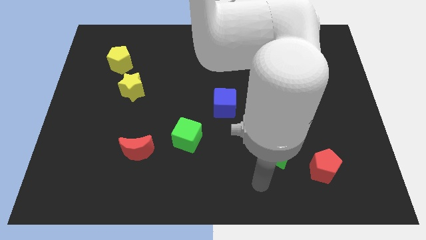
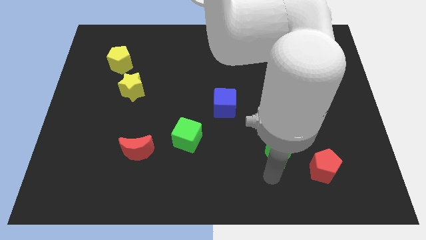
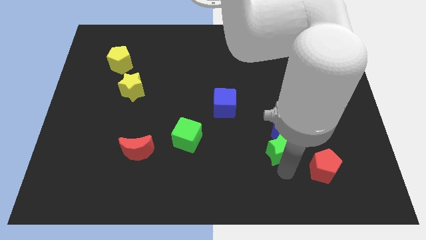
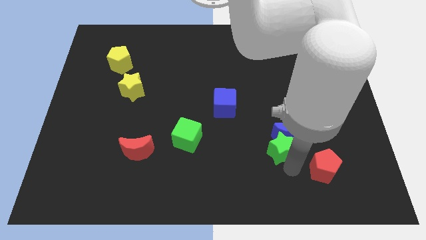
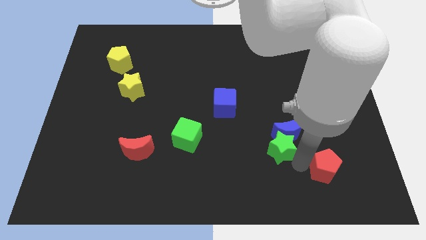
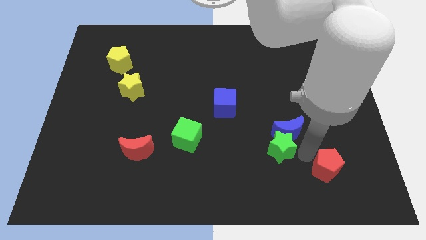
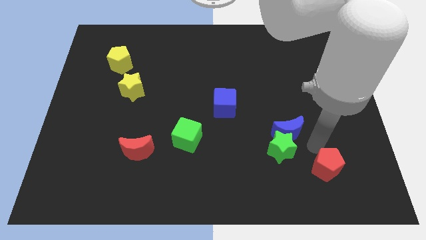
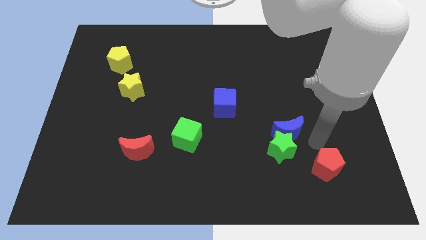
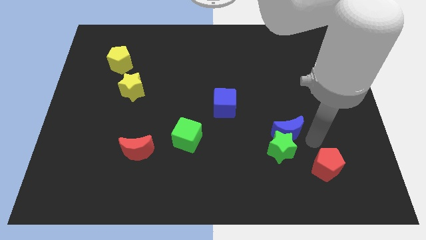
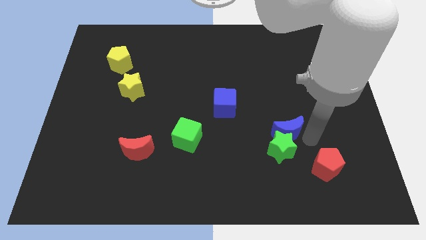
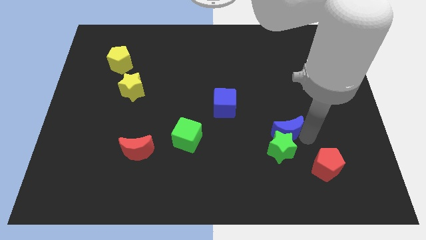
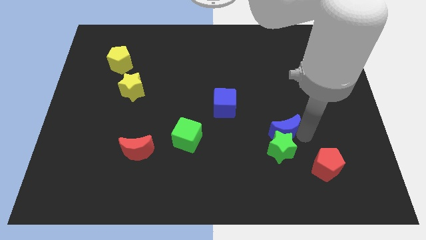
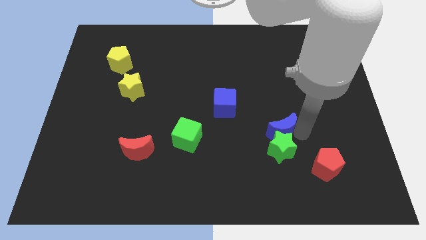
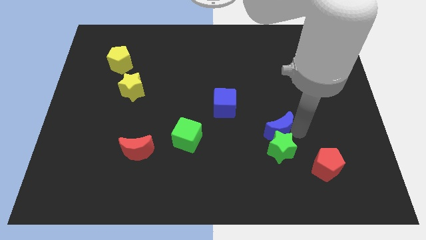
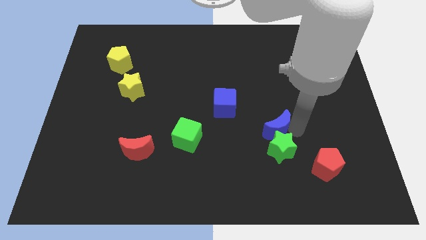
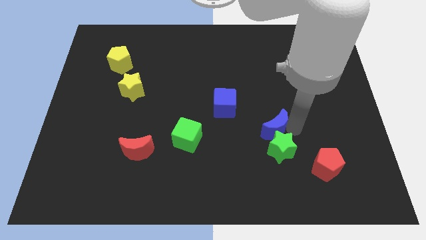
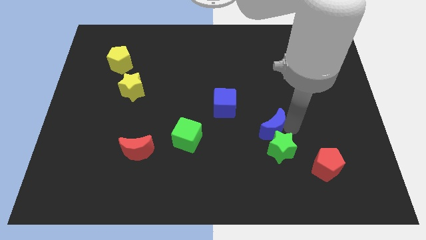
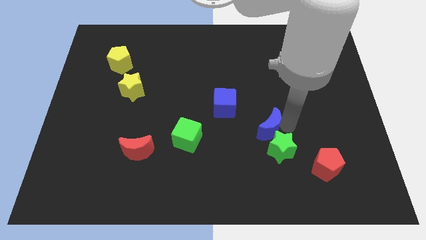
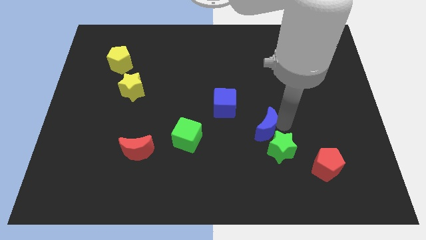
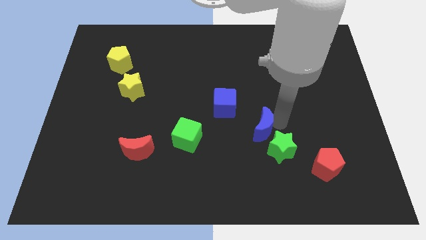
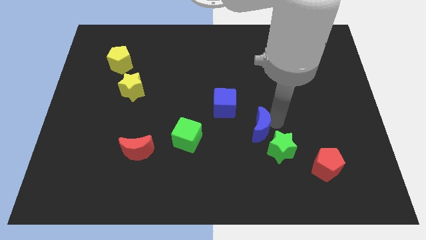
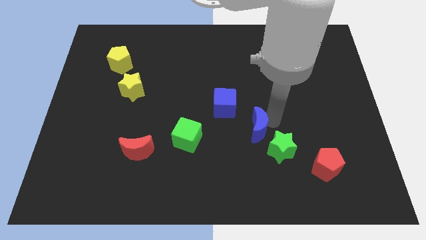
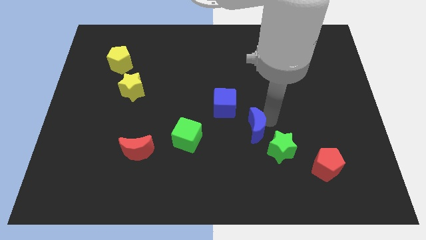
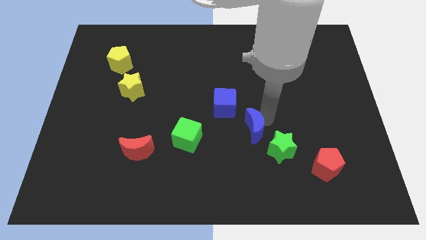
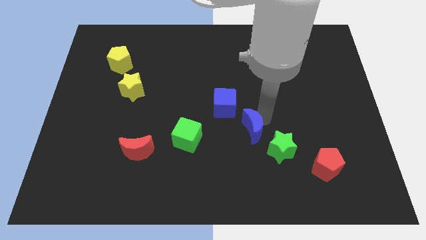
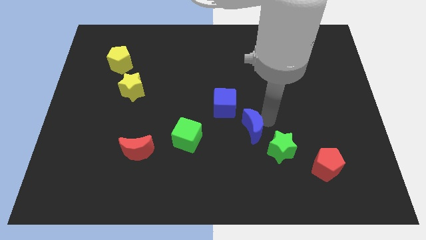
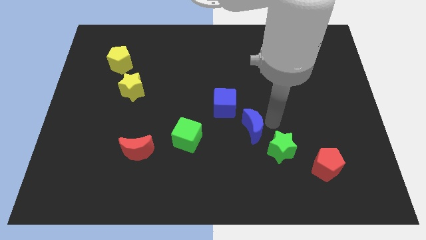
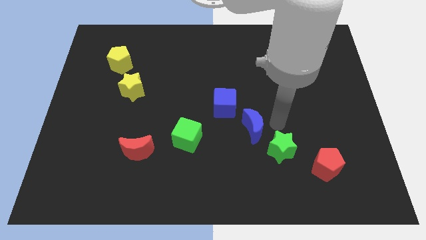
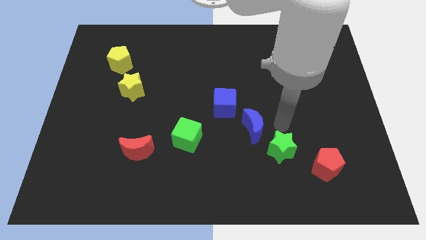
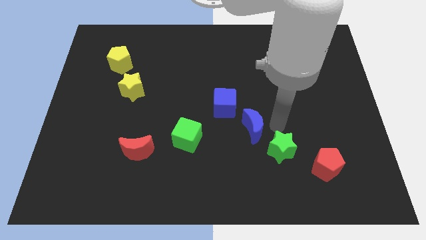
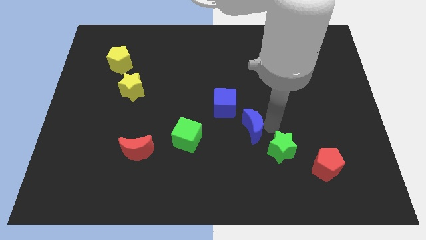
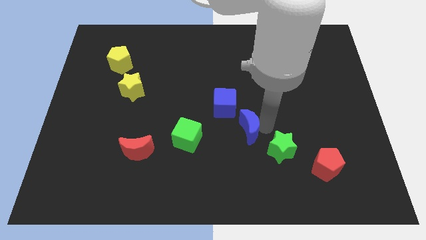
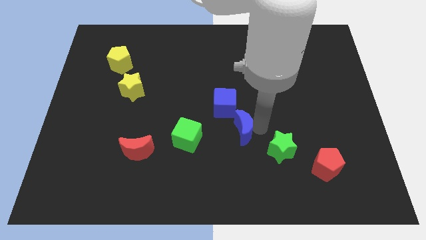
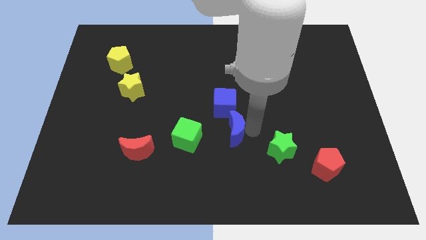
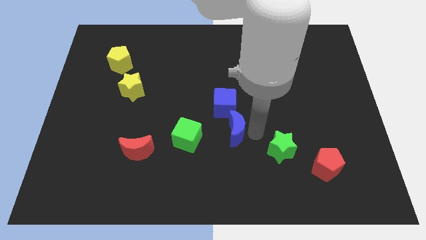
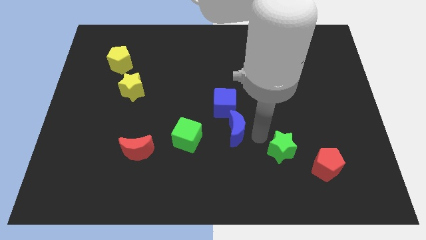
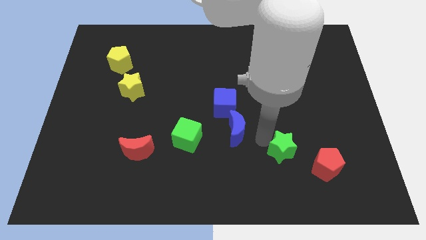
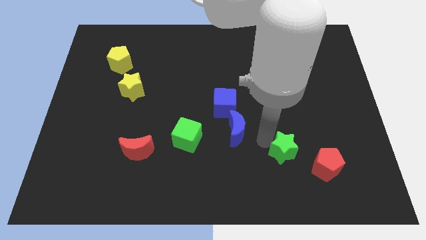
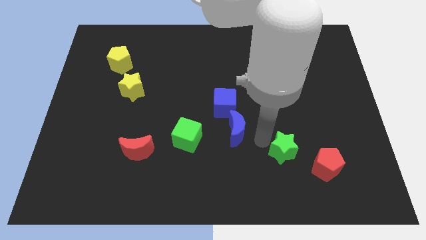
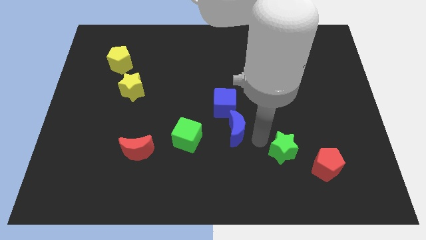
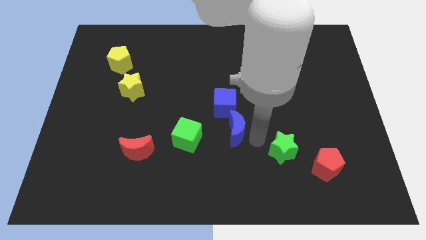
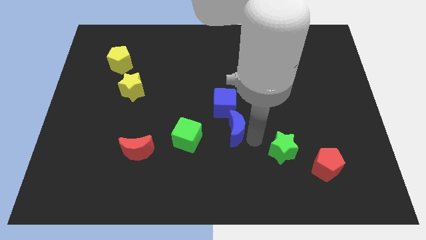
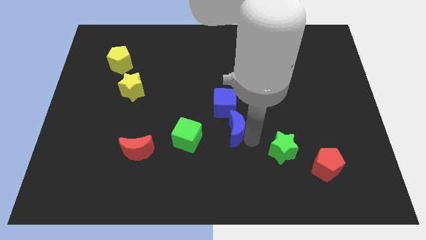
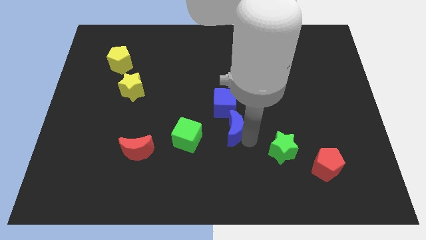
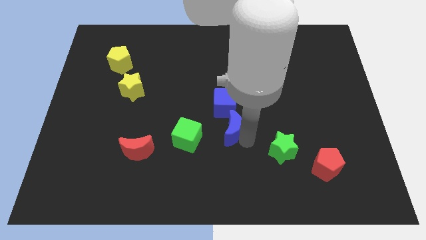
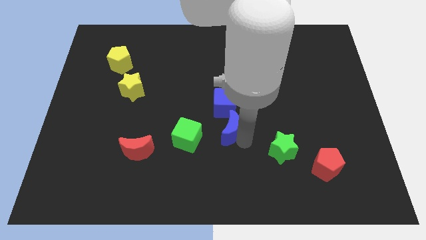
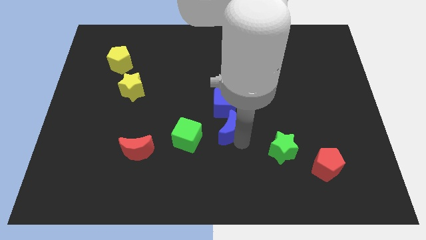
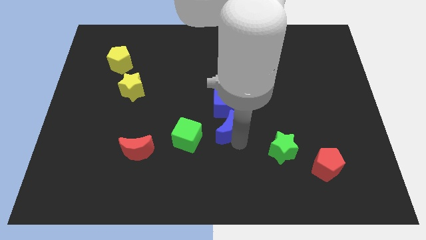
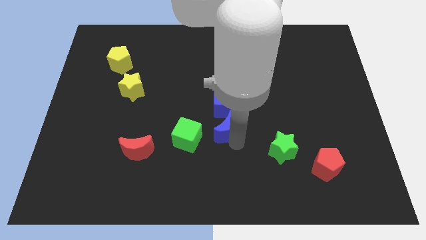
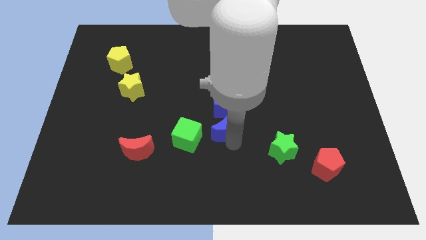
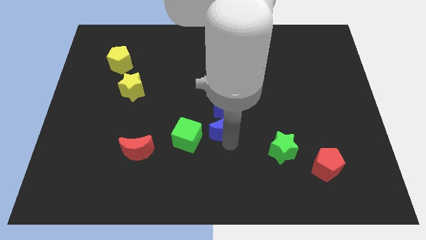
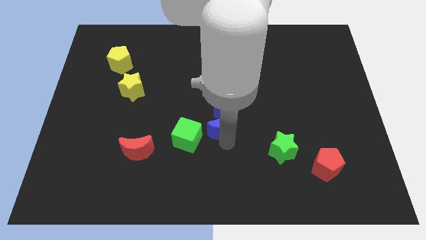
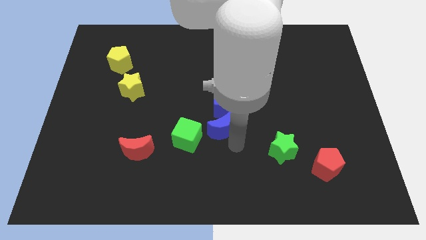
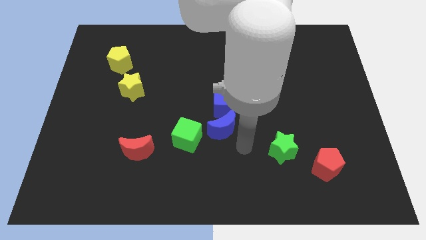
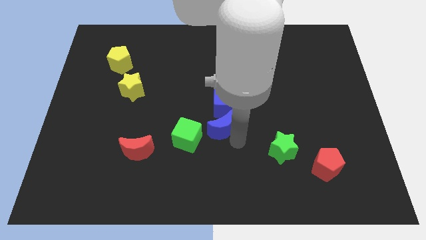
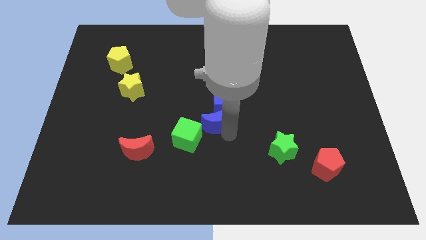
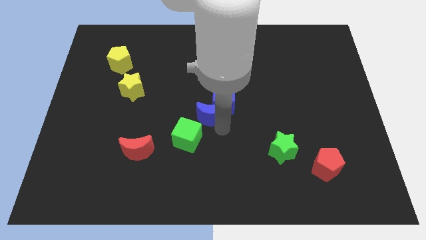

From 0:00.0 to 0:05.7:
move the blue moon to the top of the green cube

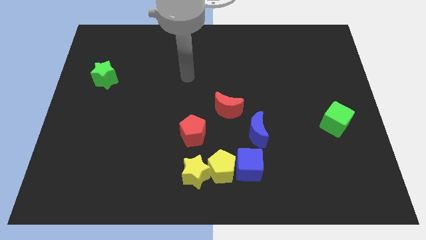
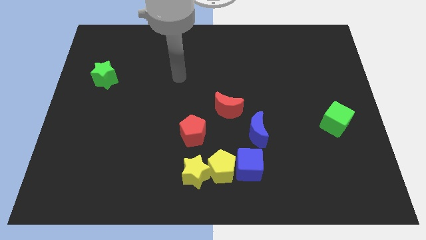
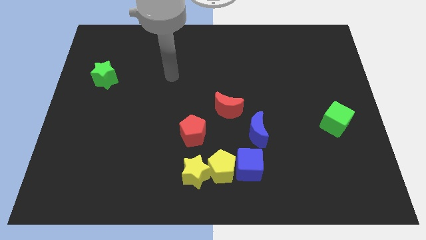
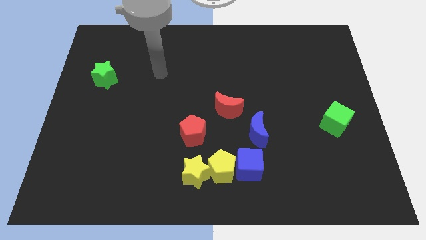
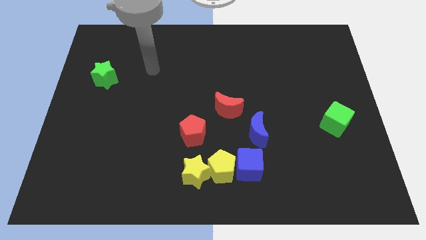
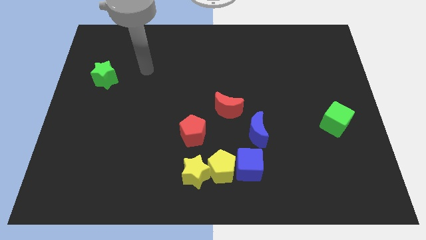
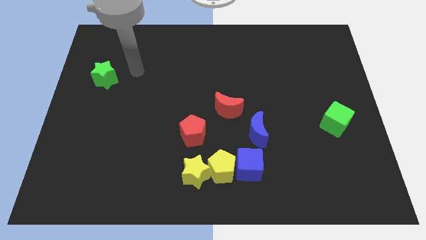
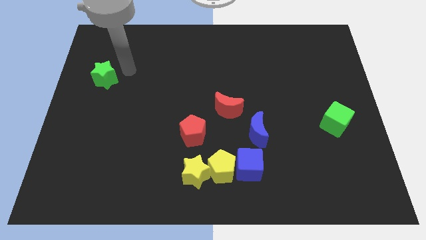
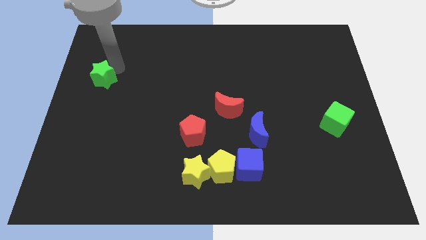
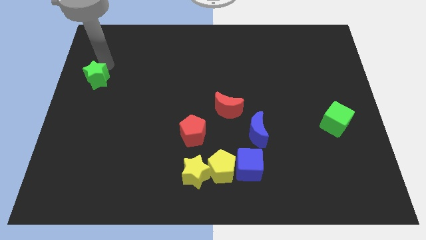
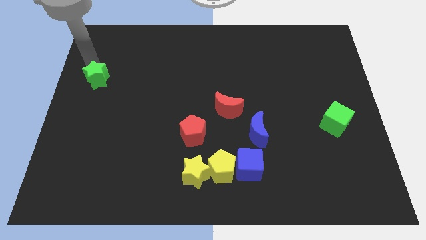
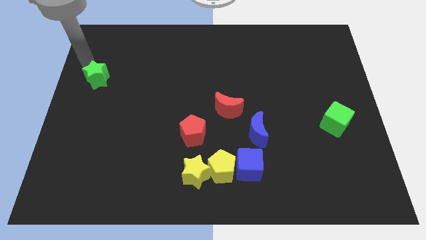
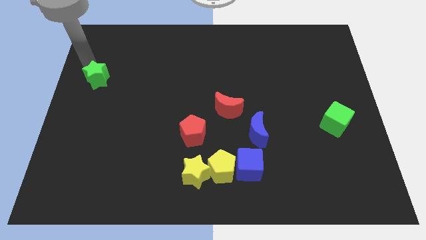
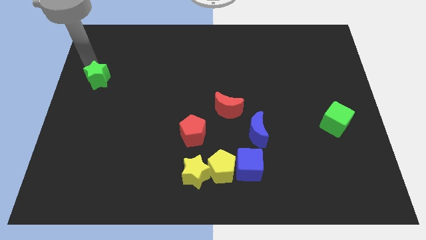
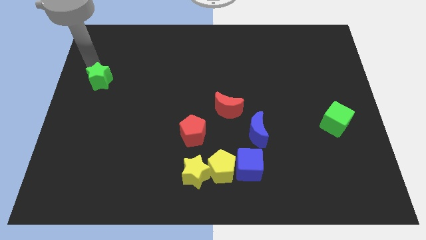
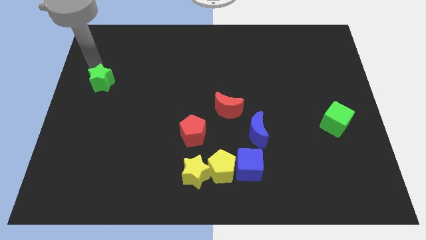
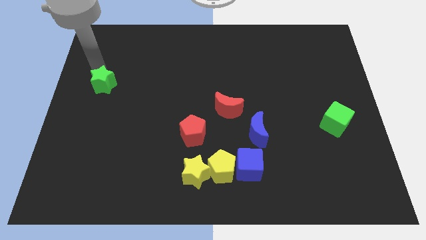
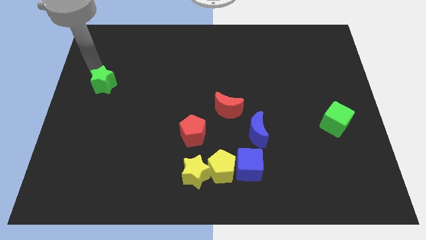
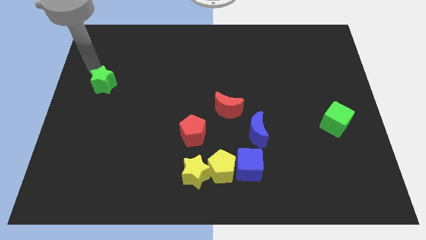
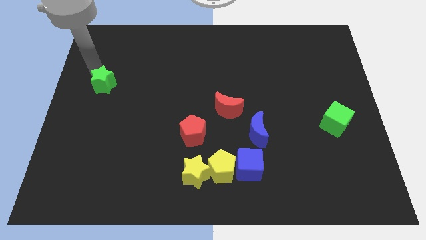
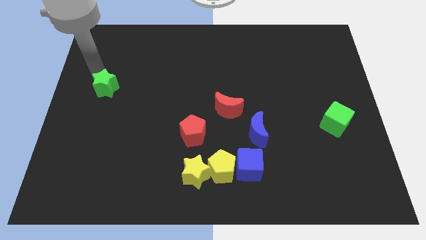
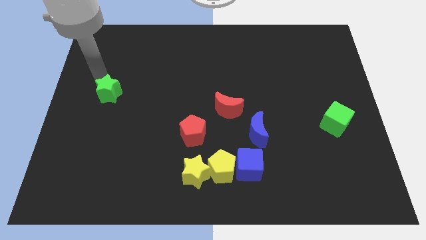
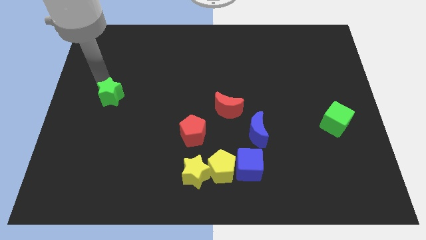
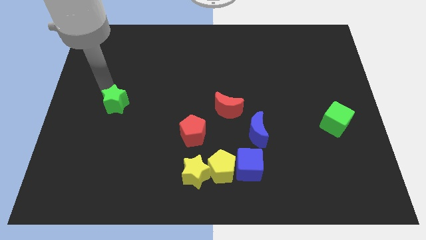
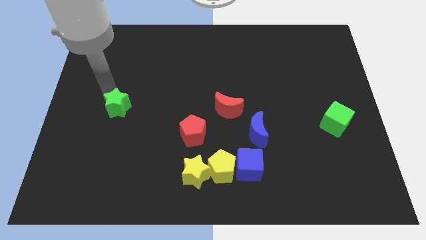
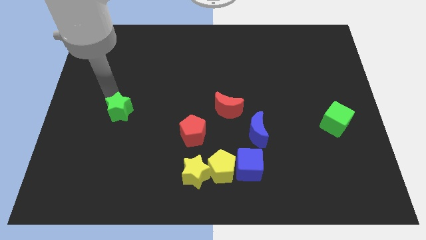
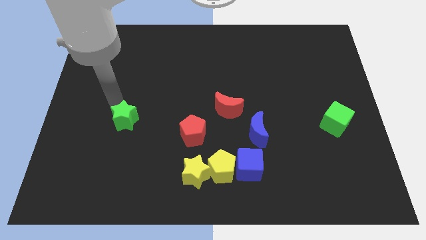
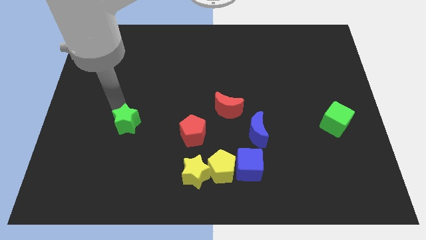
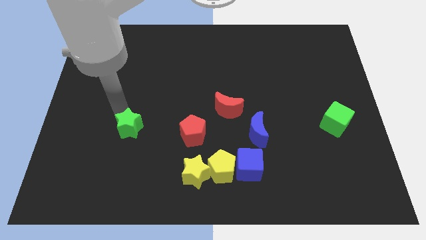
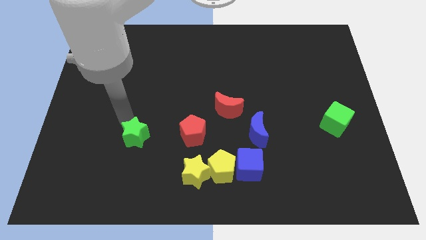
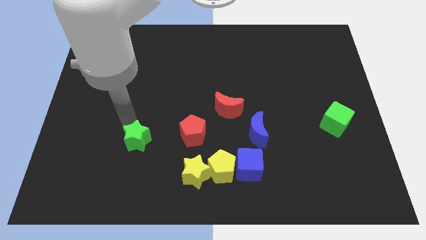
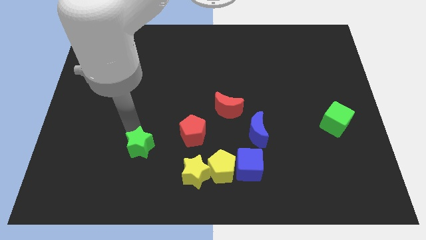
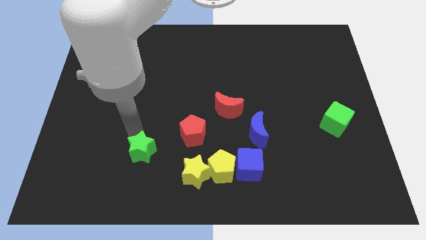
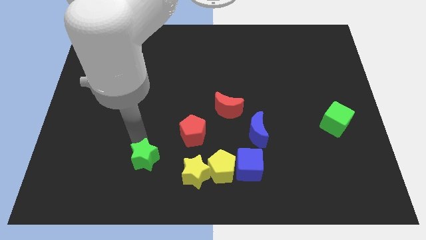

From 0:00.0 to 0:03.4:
slide the green star just left of the yellow star
